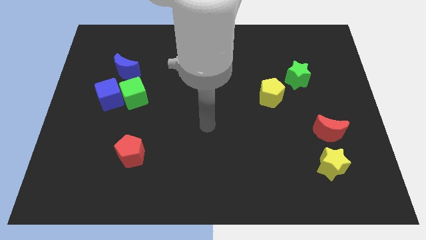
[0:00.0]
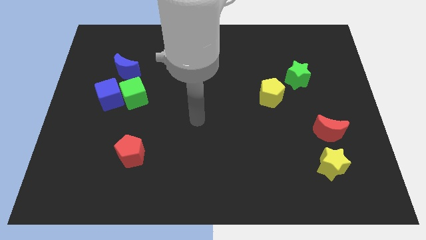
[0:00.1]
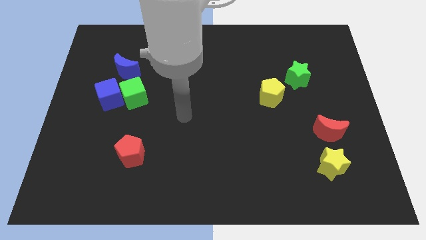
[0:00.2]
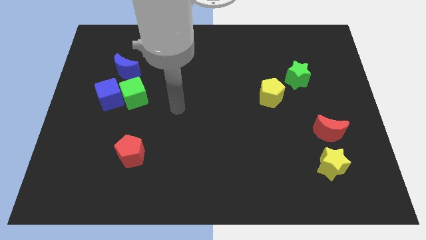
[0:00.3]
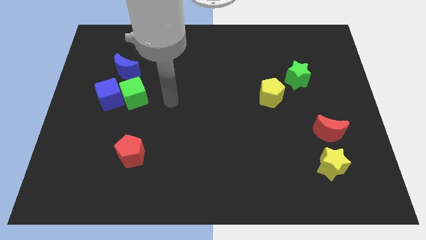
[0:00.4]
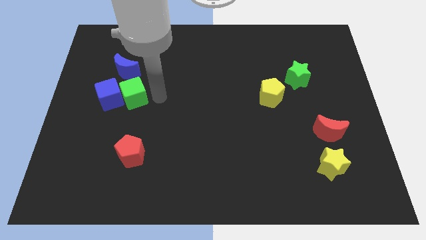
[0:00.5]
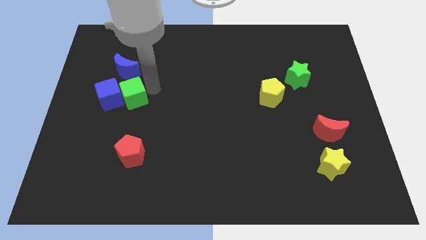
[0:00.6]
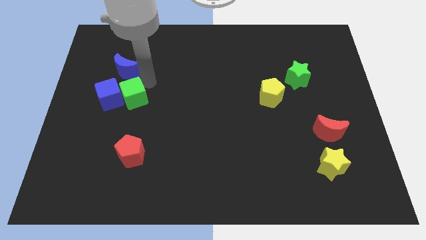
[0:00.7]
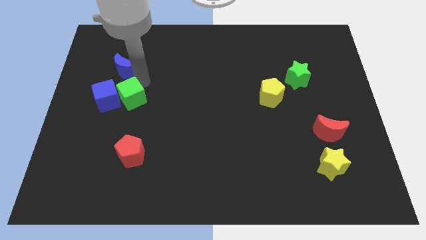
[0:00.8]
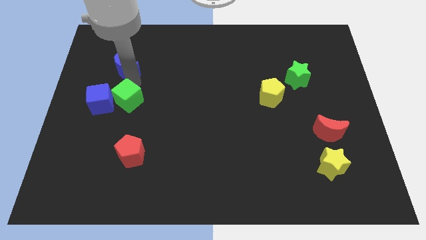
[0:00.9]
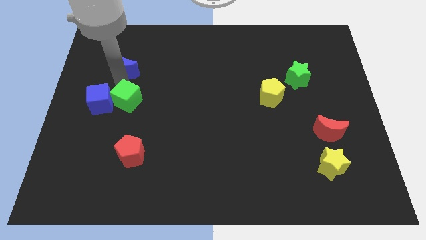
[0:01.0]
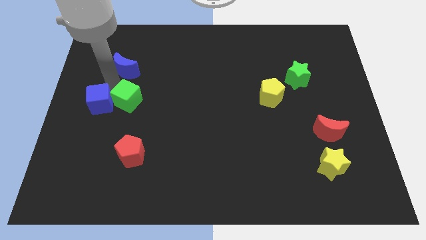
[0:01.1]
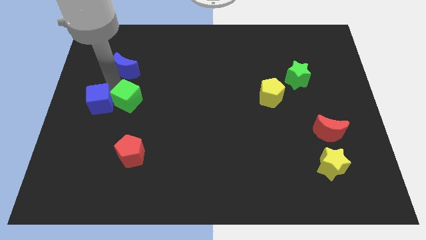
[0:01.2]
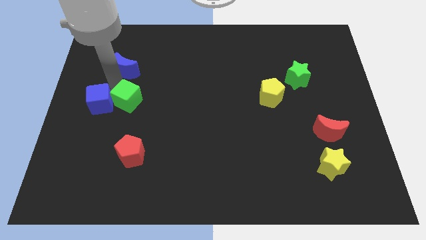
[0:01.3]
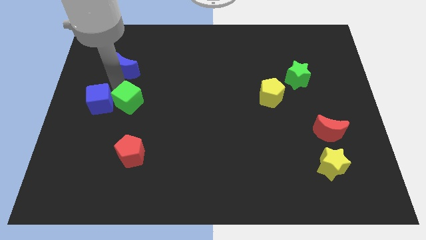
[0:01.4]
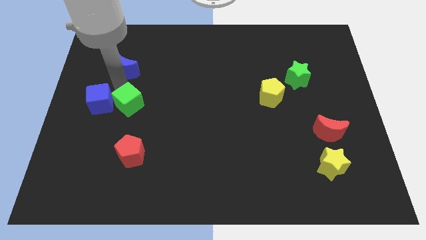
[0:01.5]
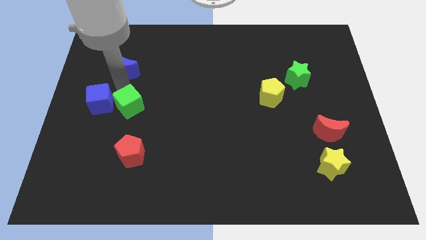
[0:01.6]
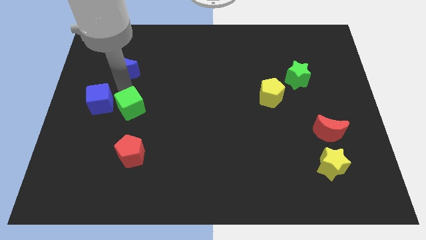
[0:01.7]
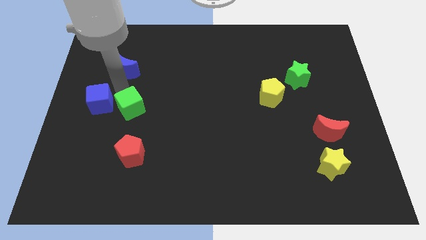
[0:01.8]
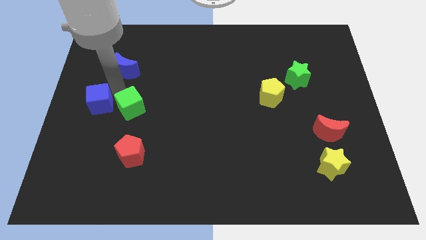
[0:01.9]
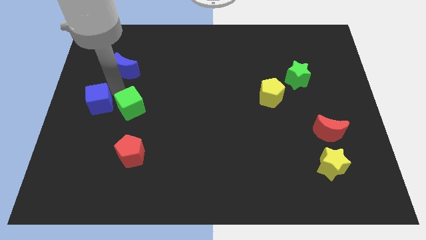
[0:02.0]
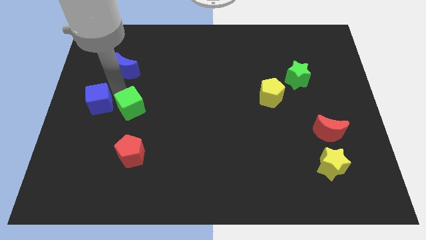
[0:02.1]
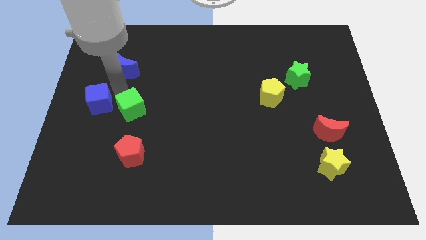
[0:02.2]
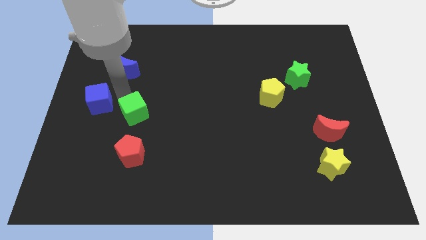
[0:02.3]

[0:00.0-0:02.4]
separate the green cube from the blue cube and blue moon

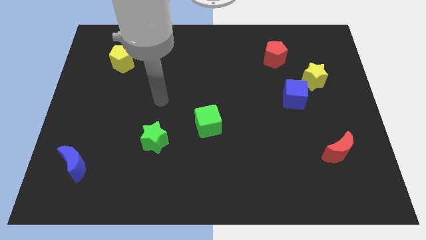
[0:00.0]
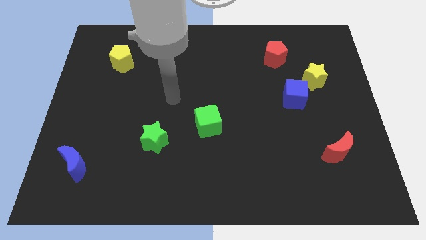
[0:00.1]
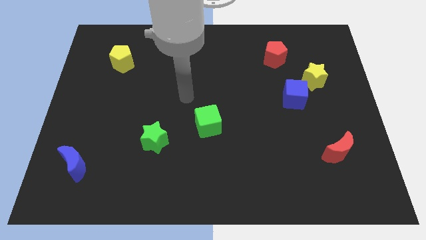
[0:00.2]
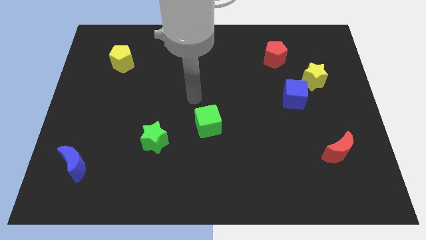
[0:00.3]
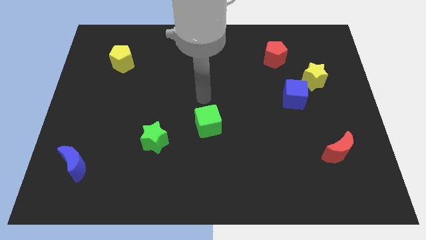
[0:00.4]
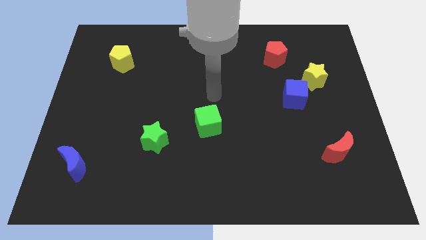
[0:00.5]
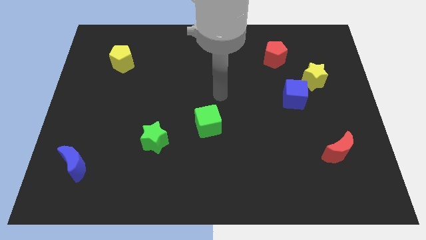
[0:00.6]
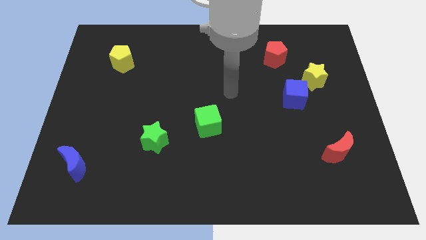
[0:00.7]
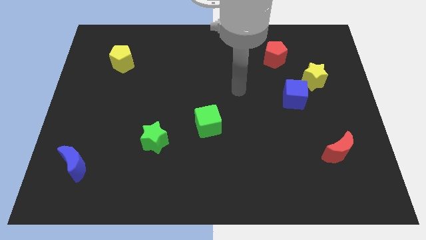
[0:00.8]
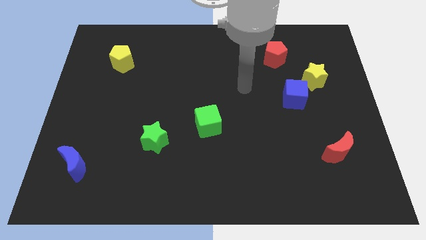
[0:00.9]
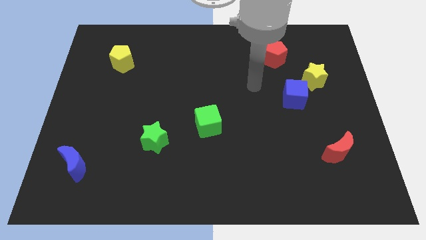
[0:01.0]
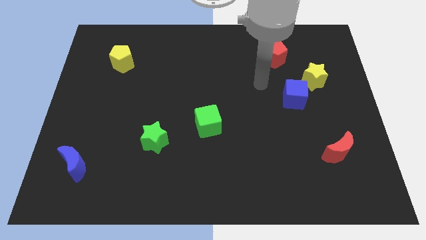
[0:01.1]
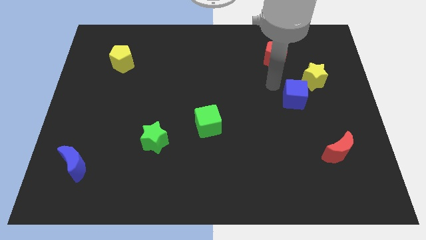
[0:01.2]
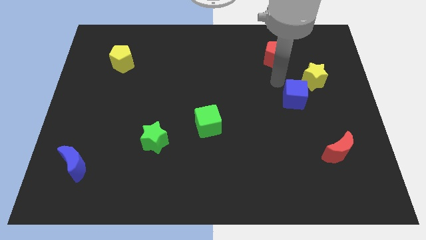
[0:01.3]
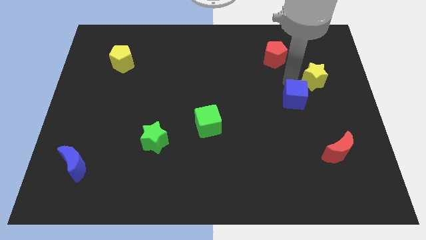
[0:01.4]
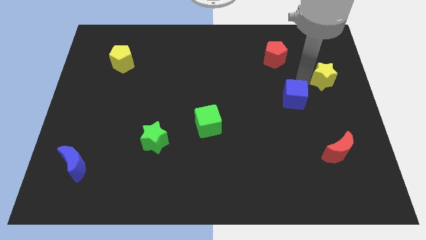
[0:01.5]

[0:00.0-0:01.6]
pull the blue cube apart from the yellow star

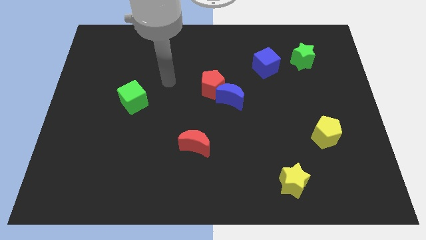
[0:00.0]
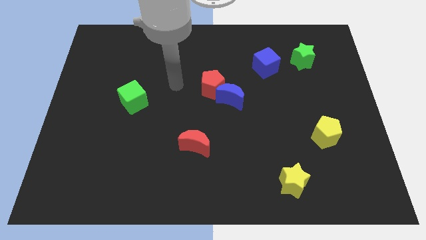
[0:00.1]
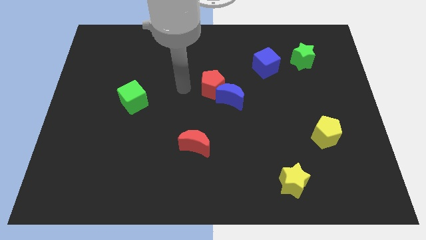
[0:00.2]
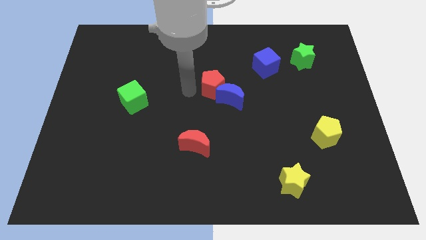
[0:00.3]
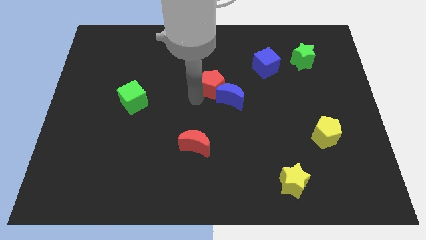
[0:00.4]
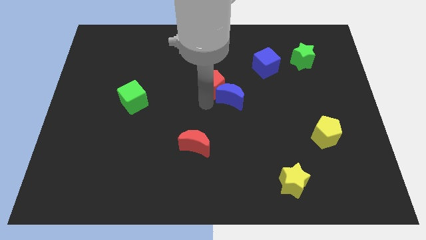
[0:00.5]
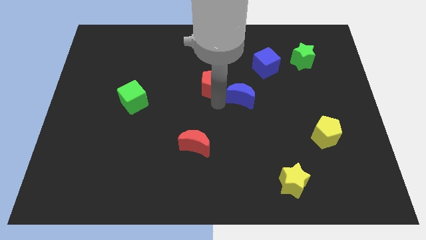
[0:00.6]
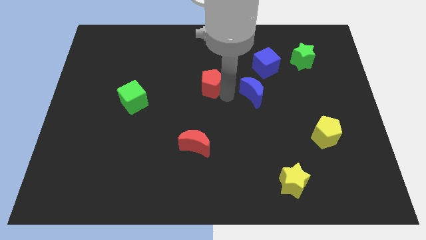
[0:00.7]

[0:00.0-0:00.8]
move the red pentagon away from the blue moon

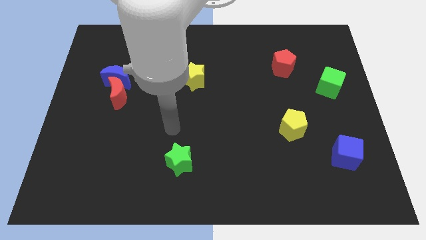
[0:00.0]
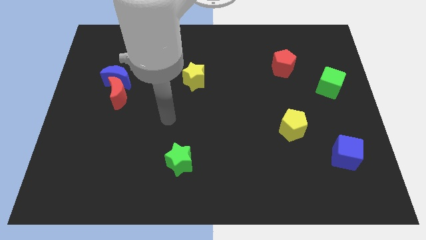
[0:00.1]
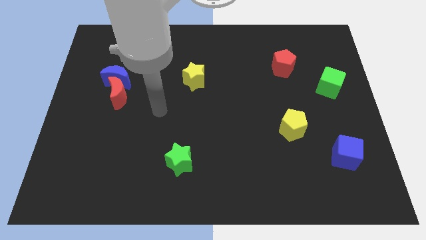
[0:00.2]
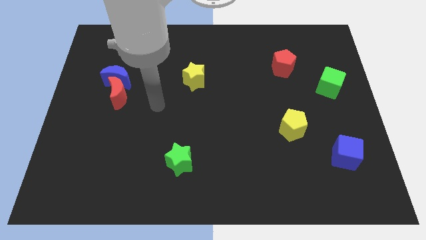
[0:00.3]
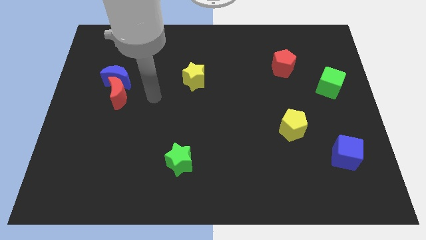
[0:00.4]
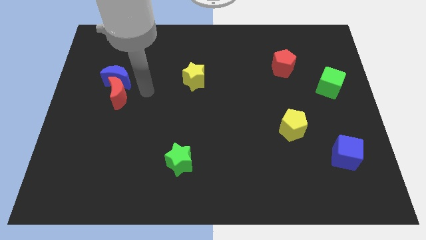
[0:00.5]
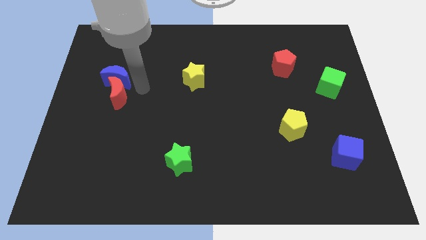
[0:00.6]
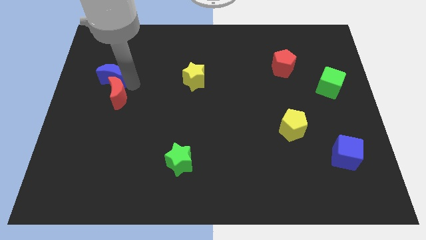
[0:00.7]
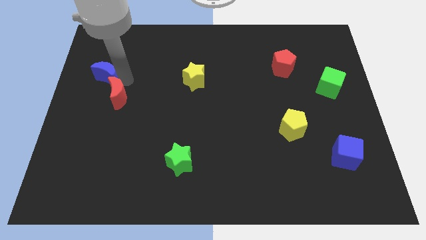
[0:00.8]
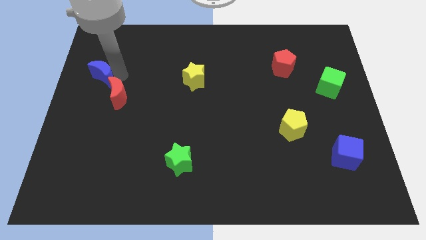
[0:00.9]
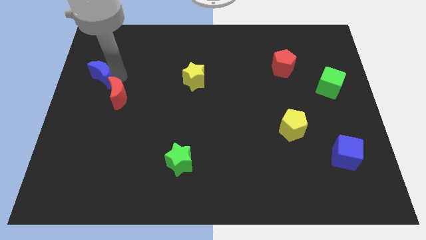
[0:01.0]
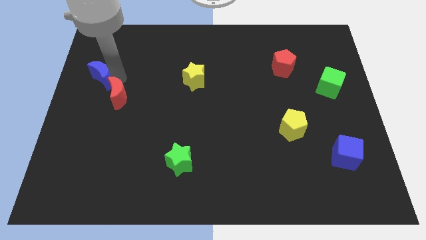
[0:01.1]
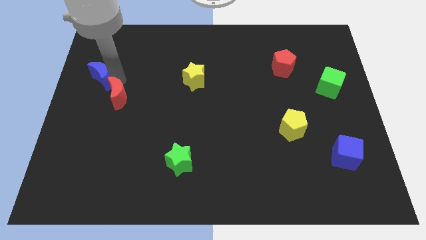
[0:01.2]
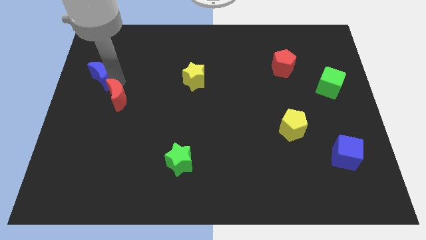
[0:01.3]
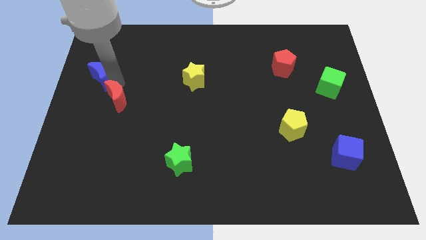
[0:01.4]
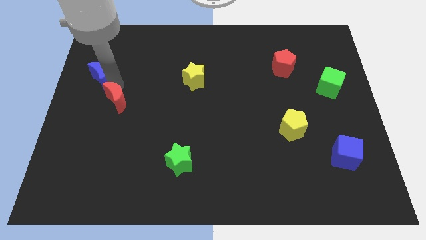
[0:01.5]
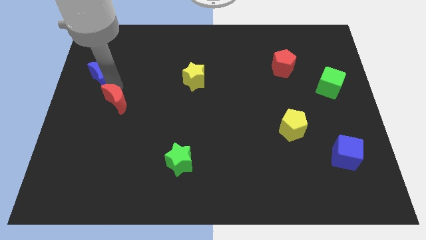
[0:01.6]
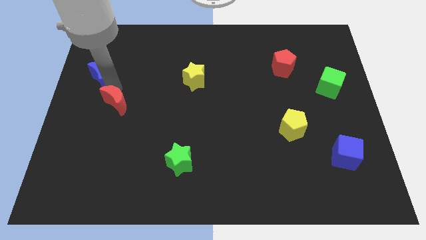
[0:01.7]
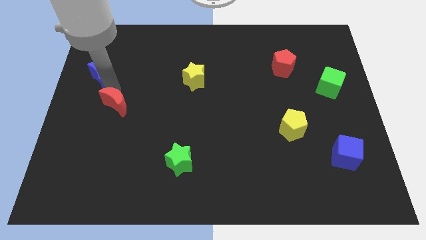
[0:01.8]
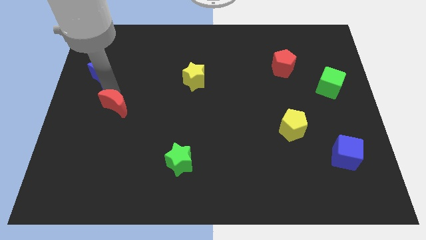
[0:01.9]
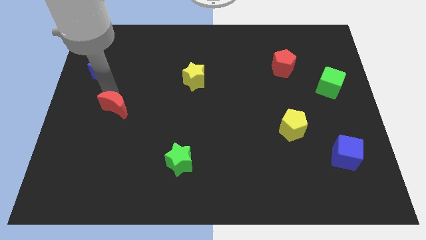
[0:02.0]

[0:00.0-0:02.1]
separate the red moon from the blue moon

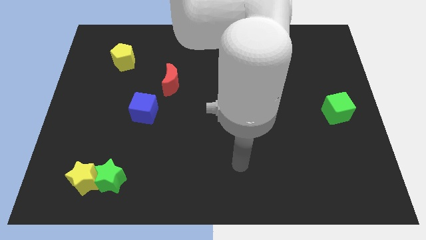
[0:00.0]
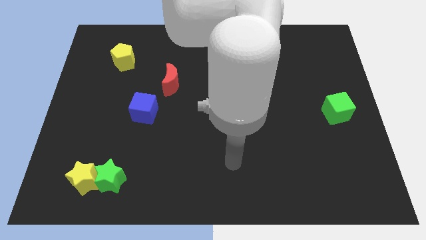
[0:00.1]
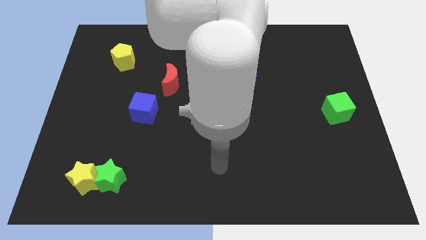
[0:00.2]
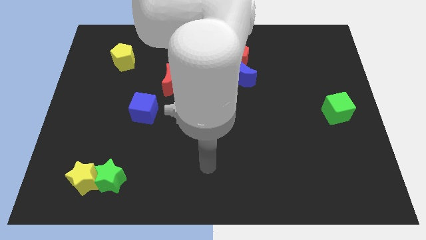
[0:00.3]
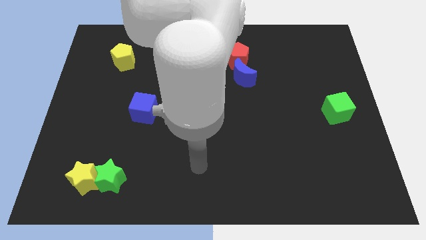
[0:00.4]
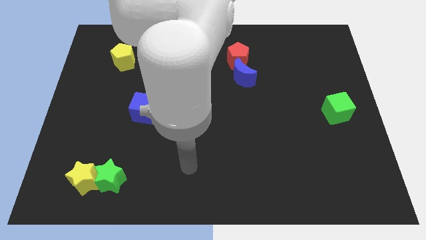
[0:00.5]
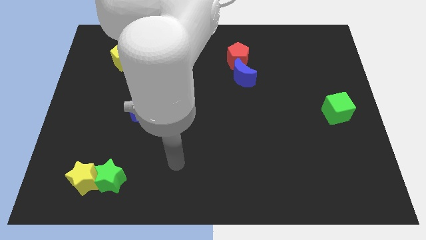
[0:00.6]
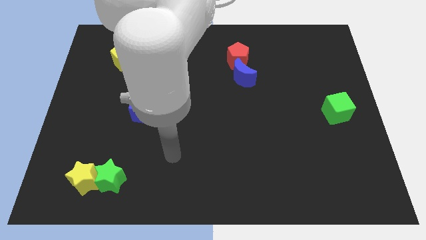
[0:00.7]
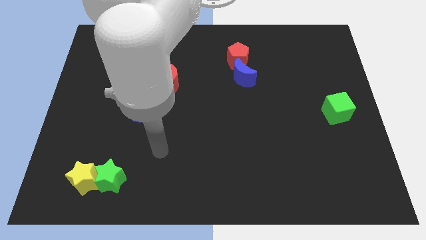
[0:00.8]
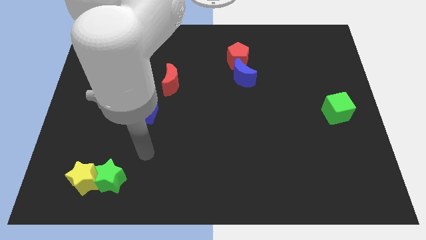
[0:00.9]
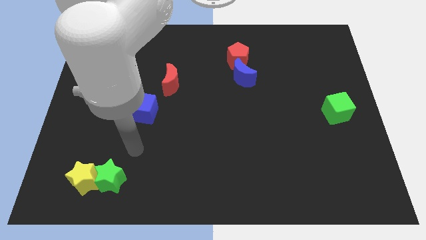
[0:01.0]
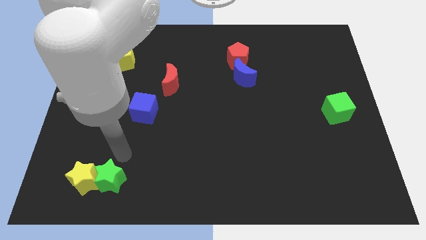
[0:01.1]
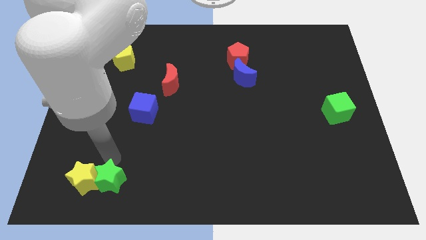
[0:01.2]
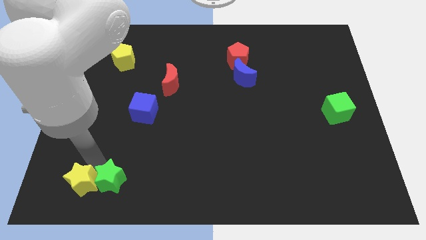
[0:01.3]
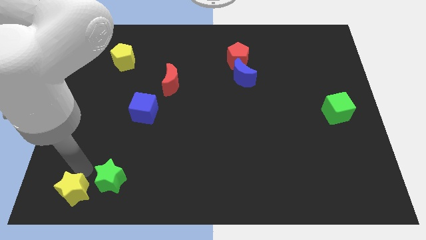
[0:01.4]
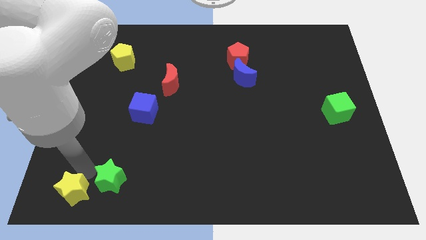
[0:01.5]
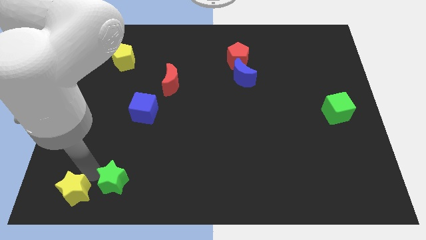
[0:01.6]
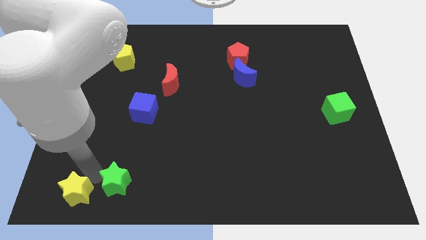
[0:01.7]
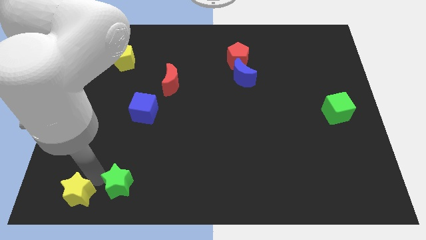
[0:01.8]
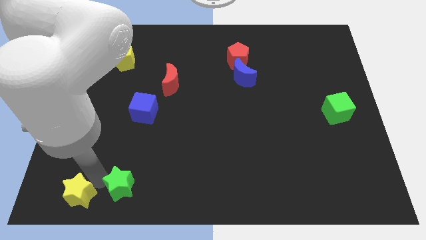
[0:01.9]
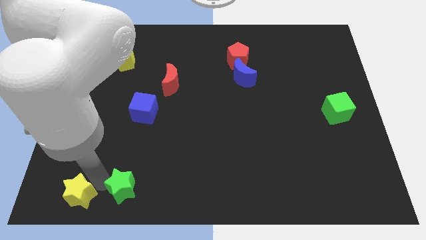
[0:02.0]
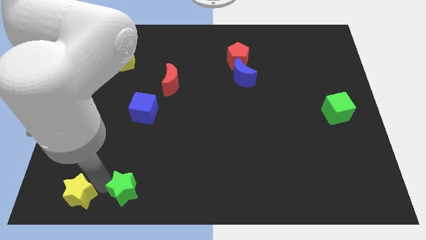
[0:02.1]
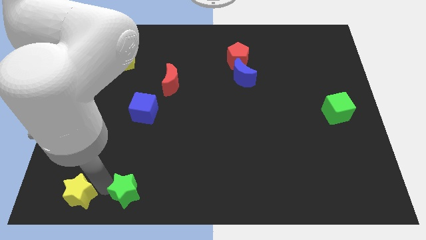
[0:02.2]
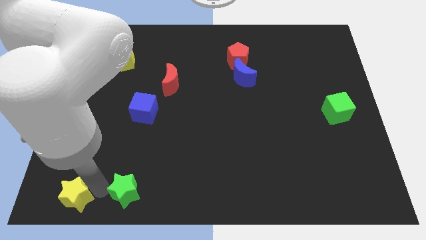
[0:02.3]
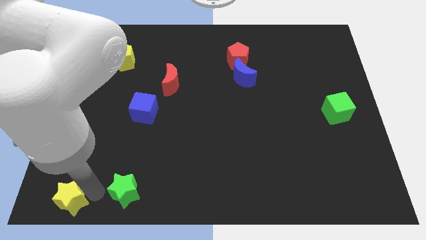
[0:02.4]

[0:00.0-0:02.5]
separate the green star from the yellow star
